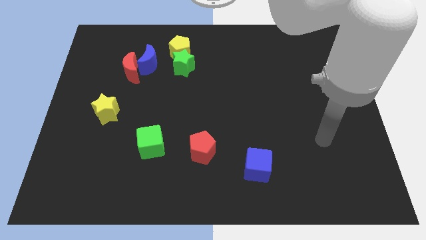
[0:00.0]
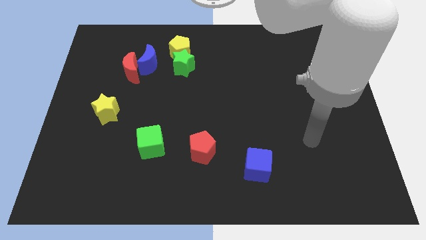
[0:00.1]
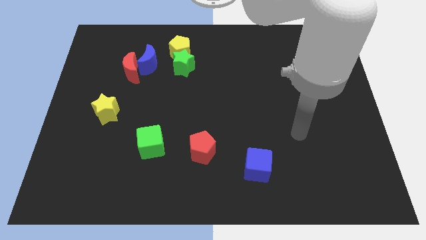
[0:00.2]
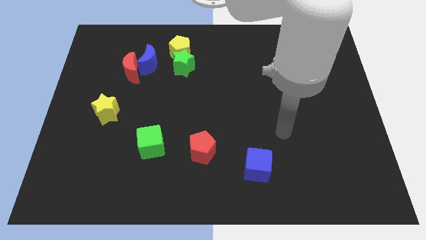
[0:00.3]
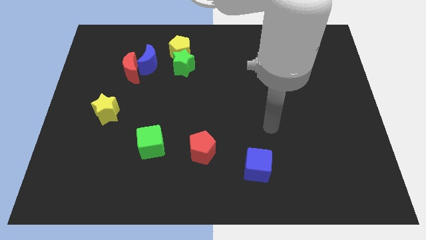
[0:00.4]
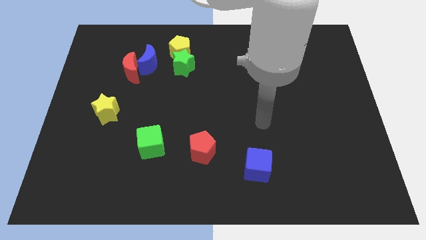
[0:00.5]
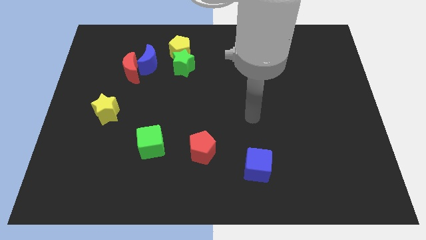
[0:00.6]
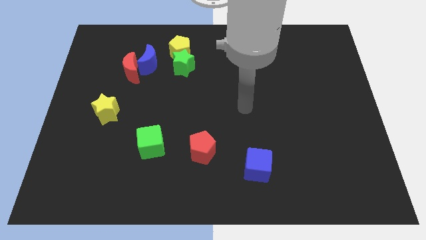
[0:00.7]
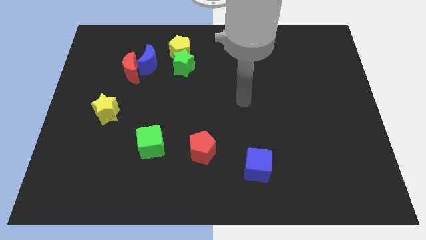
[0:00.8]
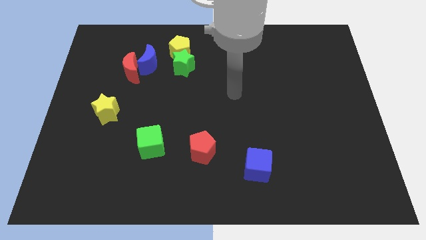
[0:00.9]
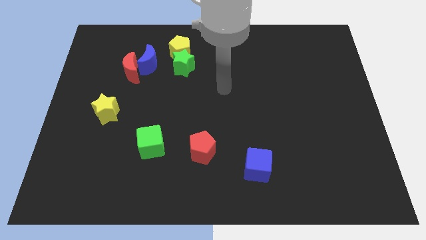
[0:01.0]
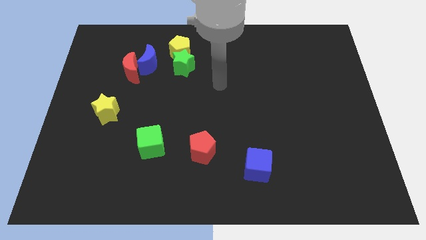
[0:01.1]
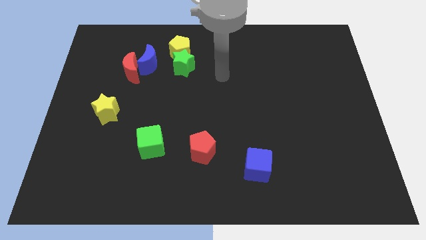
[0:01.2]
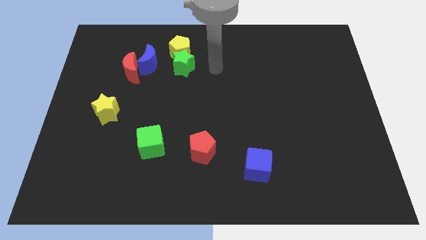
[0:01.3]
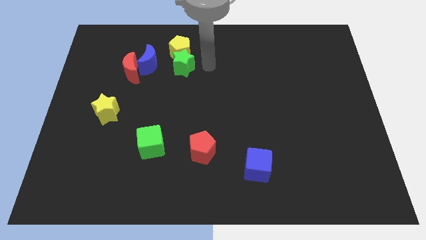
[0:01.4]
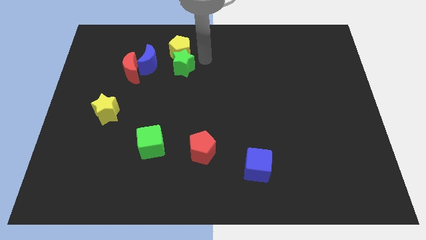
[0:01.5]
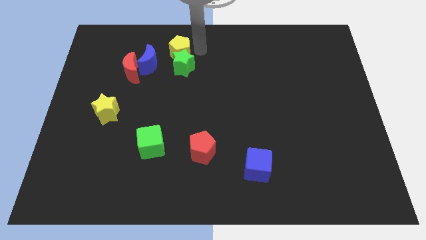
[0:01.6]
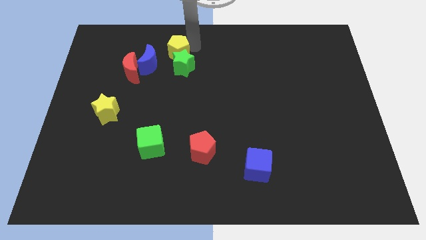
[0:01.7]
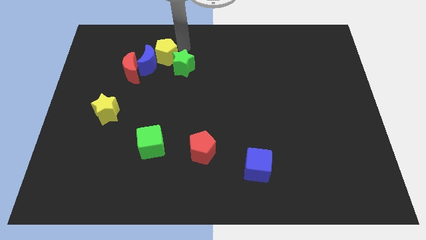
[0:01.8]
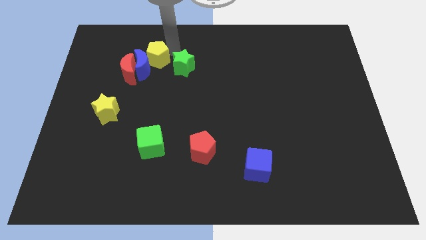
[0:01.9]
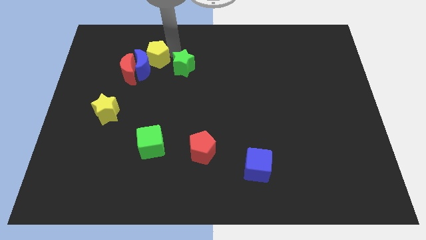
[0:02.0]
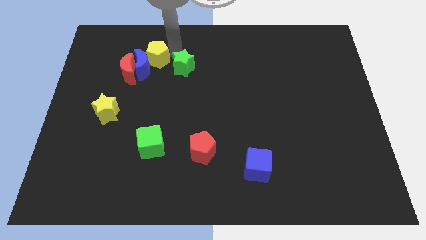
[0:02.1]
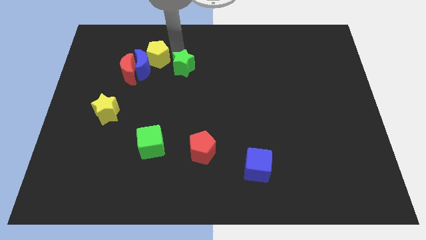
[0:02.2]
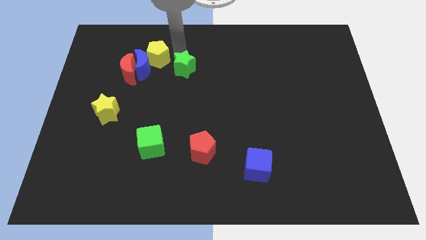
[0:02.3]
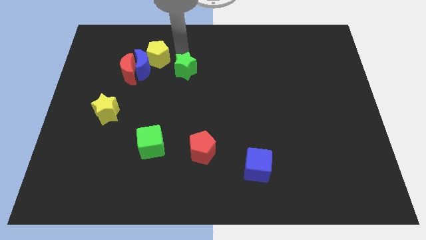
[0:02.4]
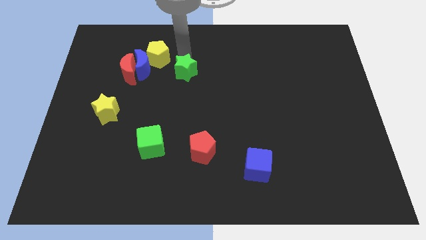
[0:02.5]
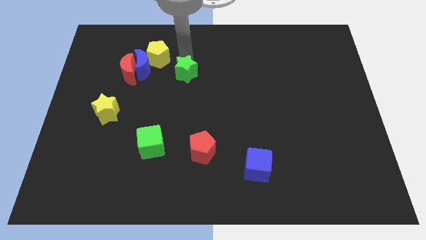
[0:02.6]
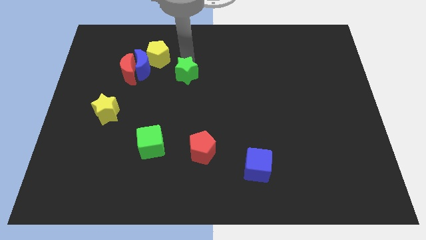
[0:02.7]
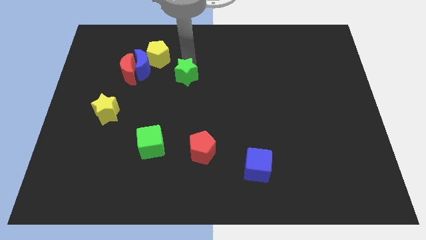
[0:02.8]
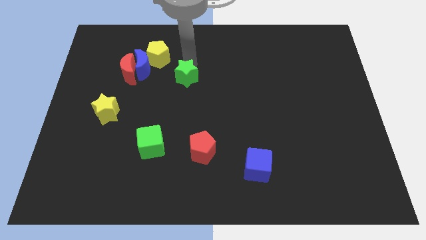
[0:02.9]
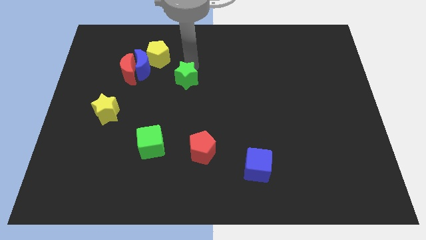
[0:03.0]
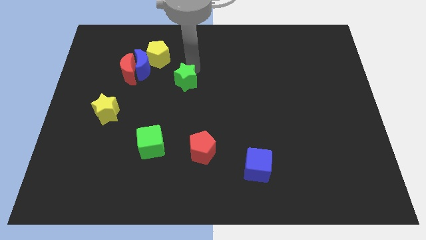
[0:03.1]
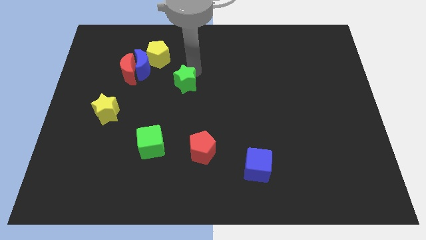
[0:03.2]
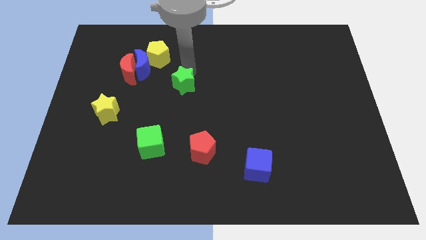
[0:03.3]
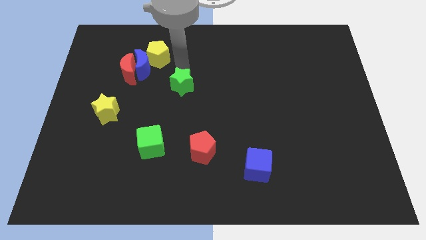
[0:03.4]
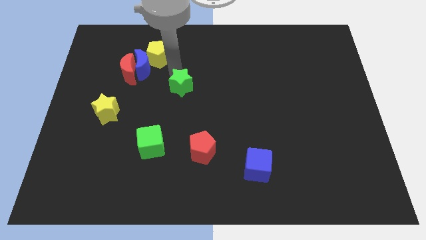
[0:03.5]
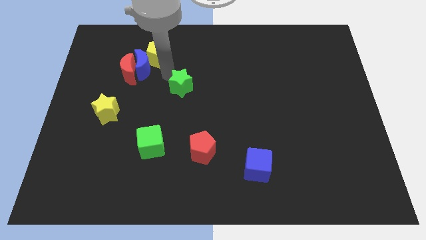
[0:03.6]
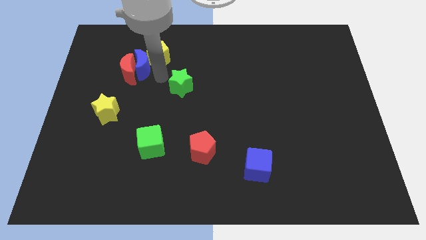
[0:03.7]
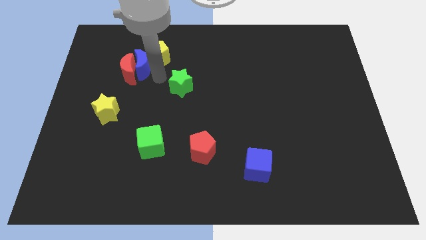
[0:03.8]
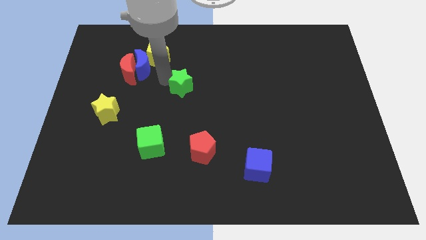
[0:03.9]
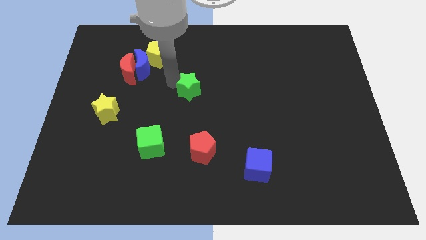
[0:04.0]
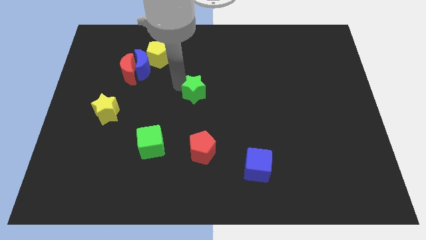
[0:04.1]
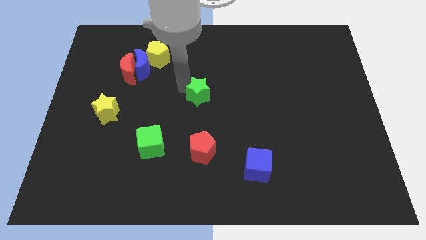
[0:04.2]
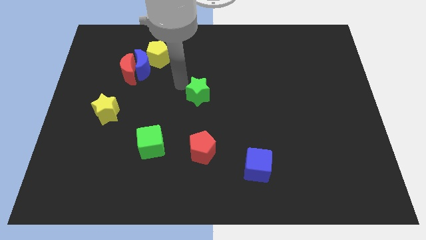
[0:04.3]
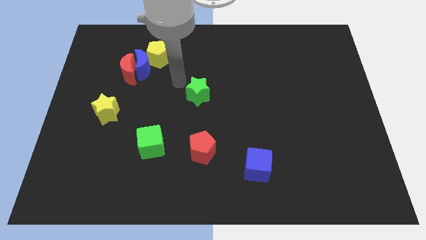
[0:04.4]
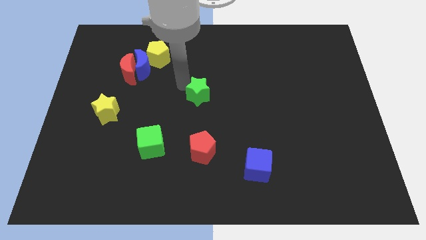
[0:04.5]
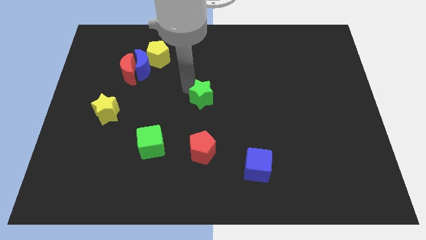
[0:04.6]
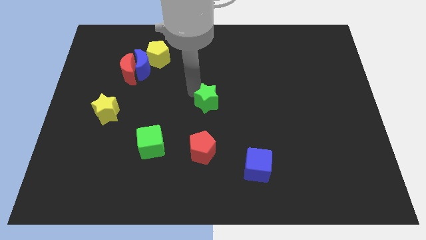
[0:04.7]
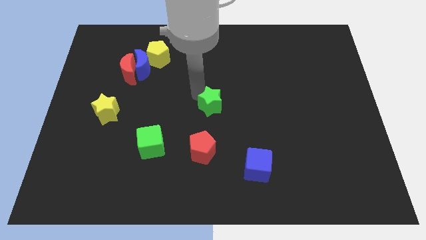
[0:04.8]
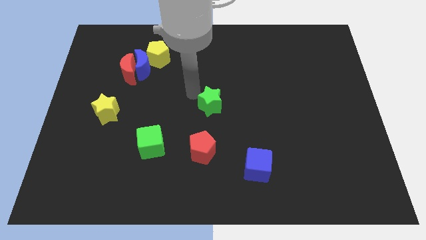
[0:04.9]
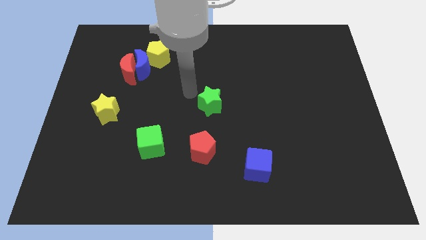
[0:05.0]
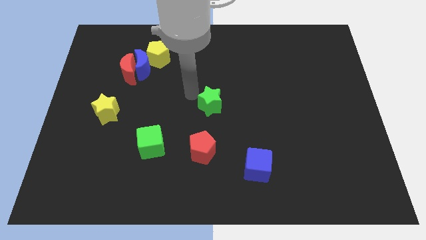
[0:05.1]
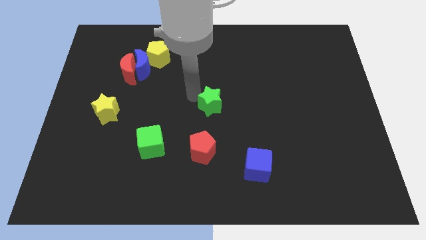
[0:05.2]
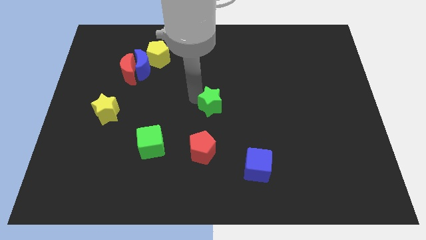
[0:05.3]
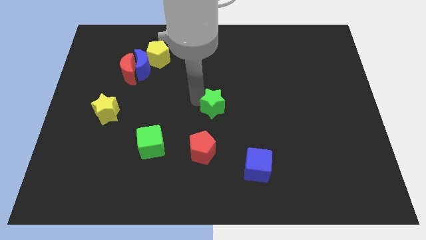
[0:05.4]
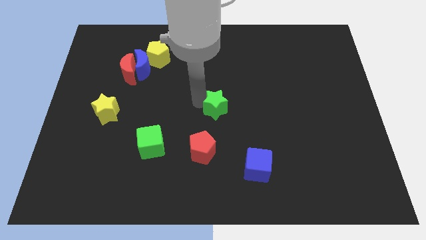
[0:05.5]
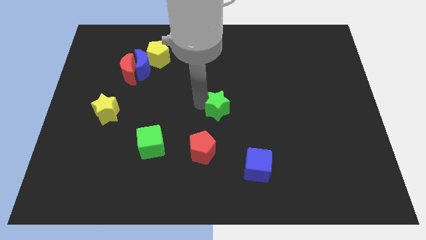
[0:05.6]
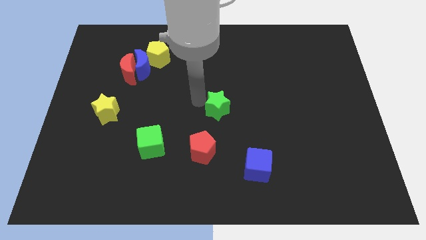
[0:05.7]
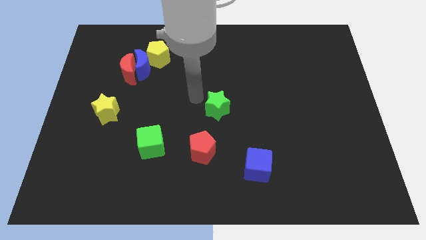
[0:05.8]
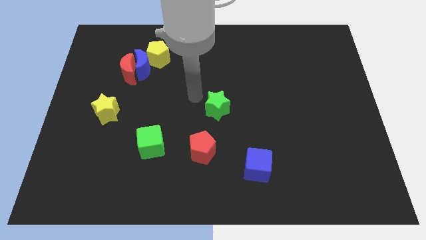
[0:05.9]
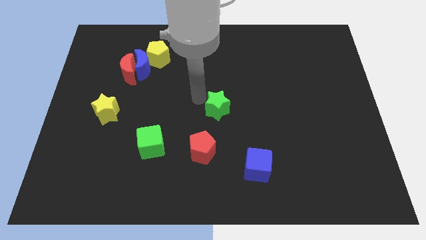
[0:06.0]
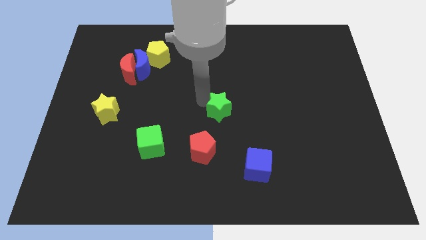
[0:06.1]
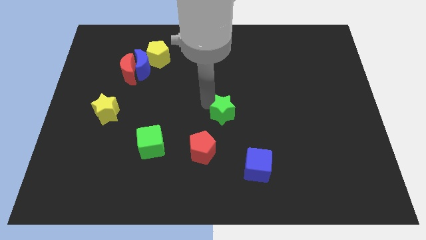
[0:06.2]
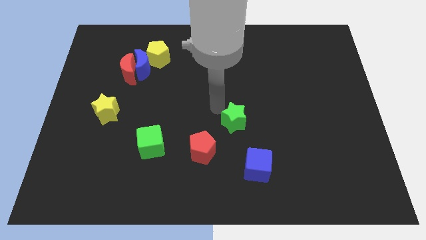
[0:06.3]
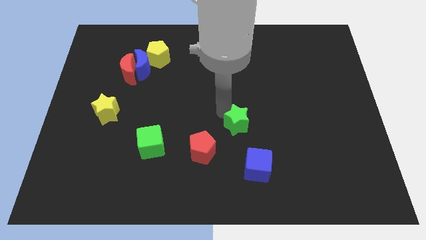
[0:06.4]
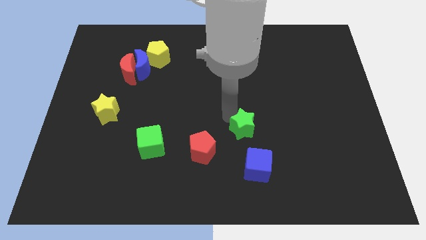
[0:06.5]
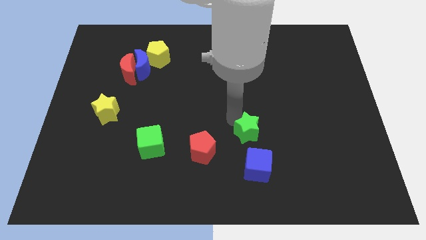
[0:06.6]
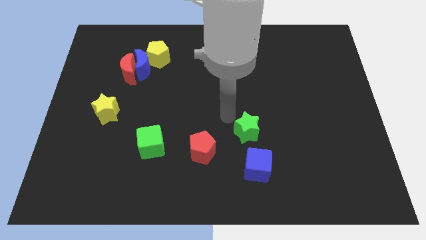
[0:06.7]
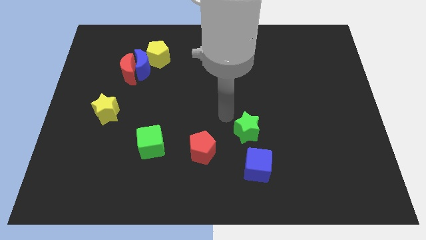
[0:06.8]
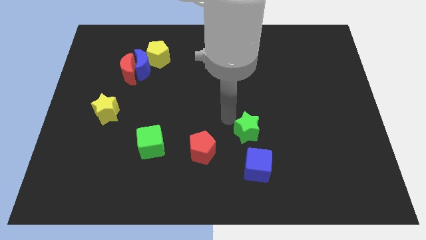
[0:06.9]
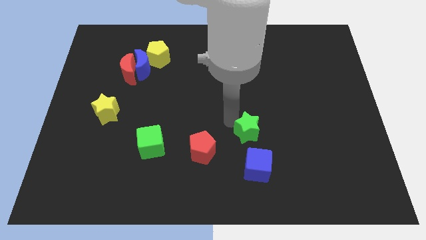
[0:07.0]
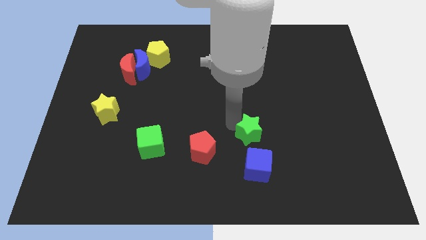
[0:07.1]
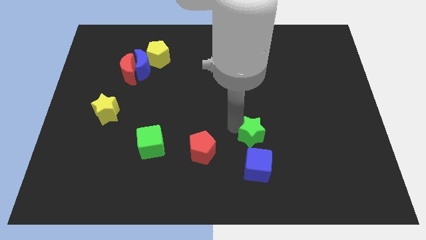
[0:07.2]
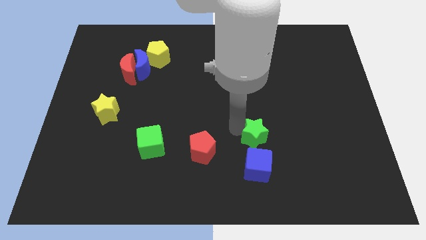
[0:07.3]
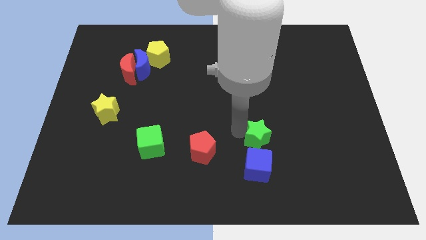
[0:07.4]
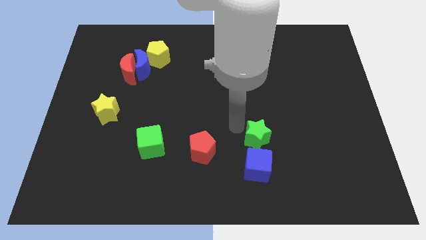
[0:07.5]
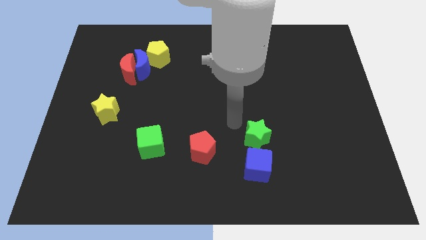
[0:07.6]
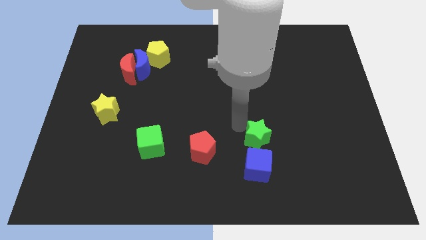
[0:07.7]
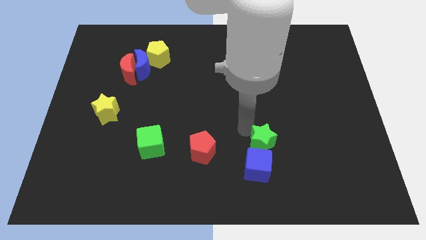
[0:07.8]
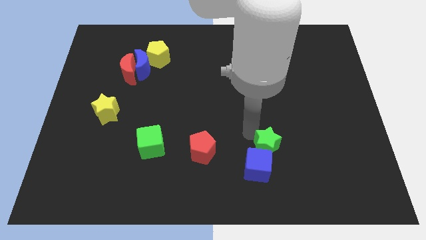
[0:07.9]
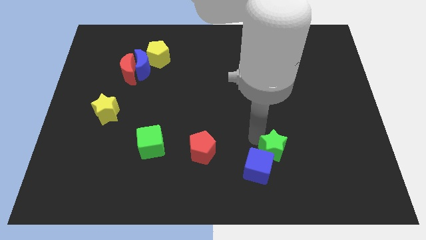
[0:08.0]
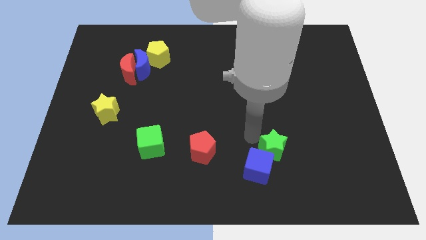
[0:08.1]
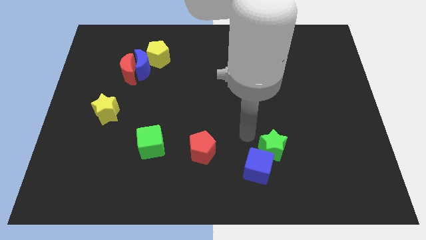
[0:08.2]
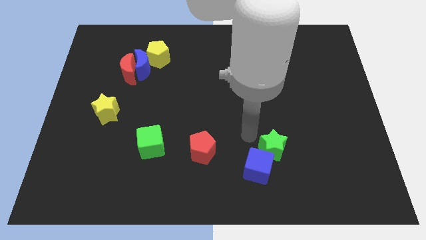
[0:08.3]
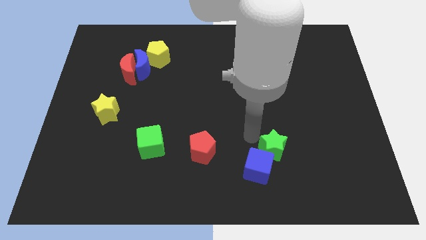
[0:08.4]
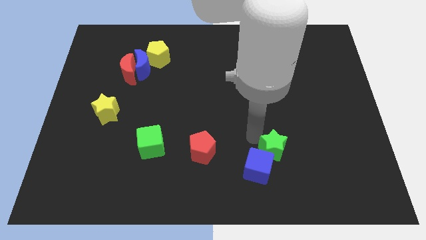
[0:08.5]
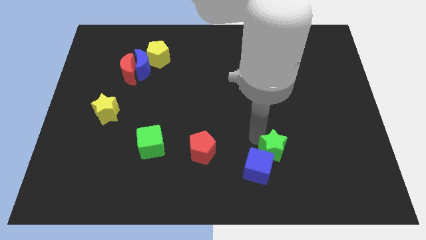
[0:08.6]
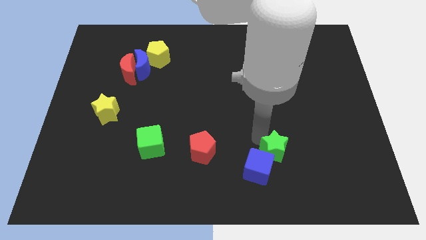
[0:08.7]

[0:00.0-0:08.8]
push the green star just right of the blue cube
